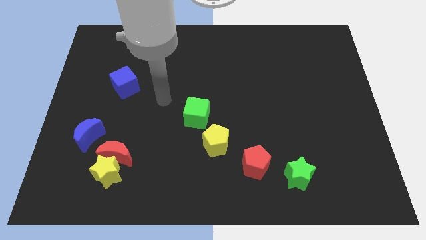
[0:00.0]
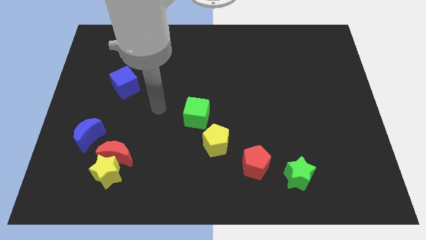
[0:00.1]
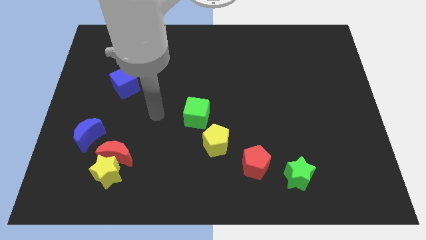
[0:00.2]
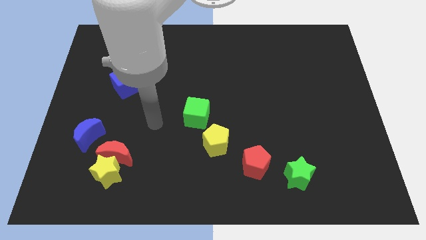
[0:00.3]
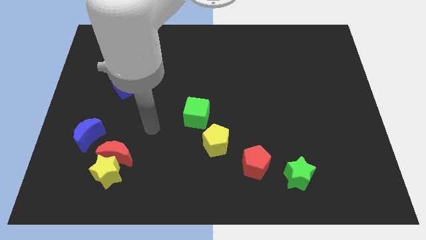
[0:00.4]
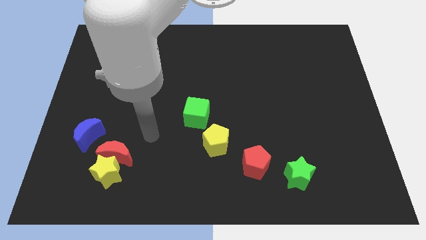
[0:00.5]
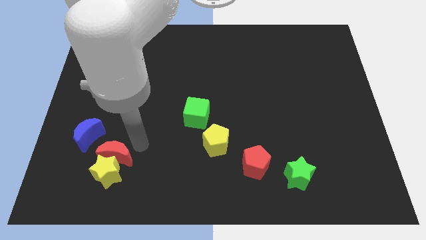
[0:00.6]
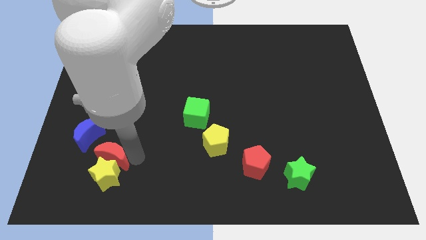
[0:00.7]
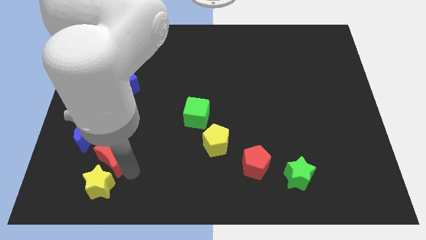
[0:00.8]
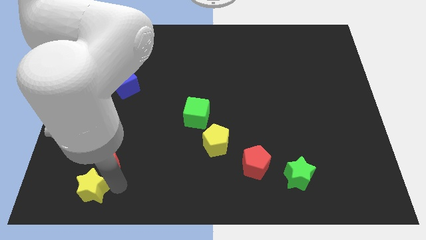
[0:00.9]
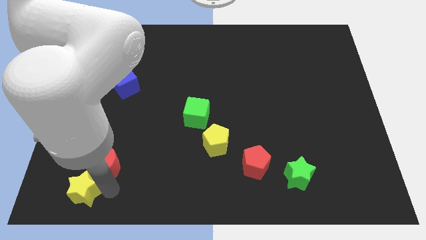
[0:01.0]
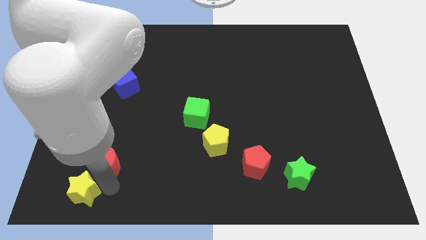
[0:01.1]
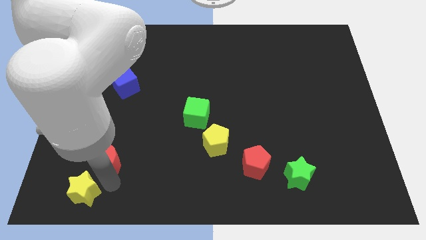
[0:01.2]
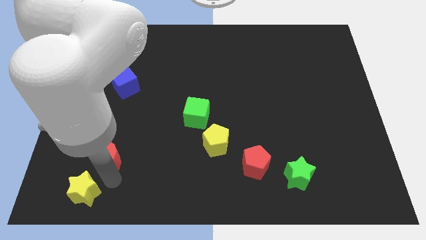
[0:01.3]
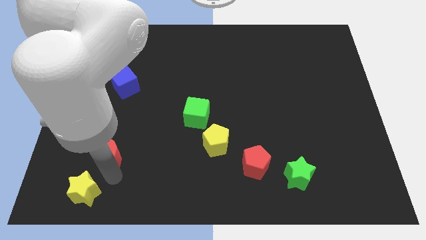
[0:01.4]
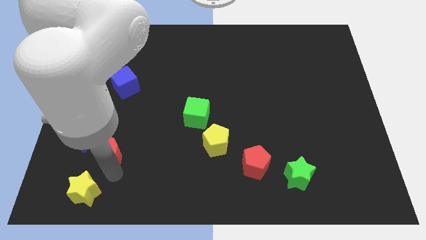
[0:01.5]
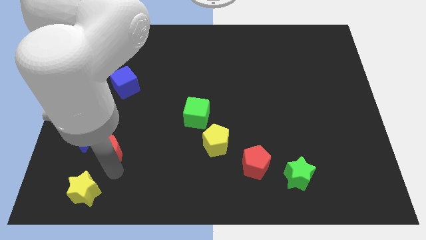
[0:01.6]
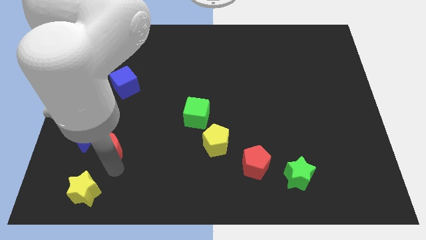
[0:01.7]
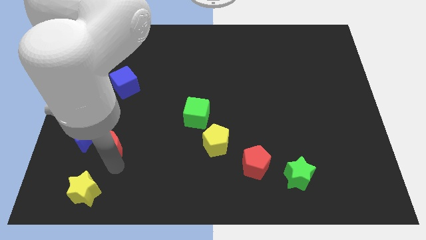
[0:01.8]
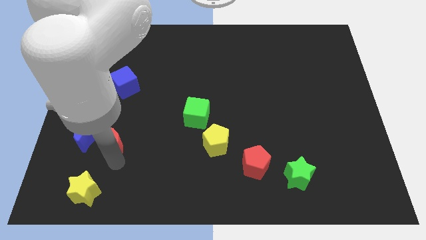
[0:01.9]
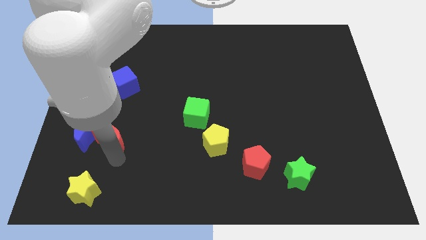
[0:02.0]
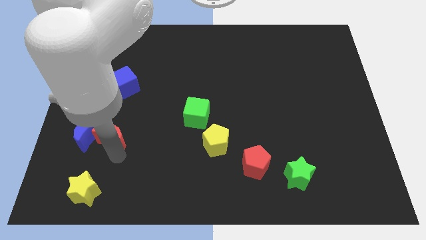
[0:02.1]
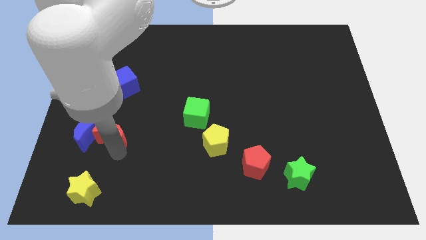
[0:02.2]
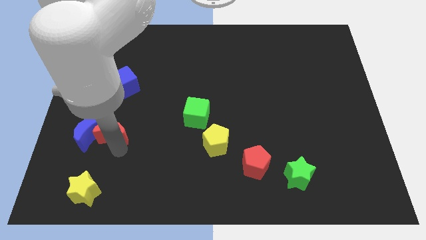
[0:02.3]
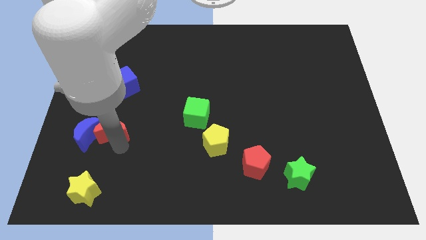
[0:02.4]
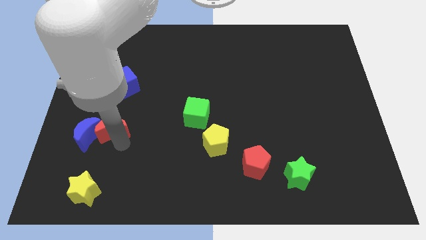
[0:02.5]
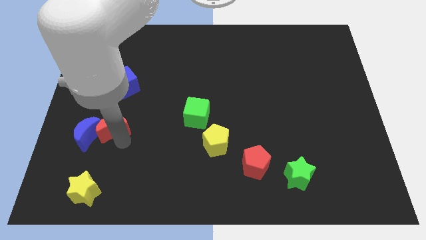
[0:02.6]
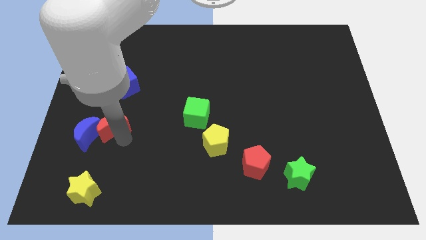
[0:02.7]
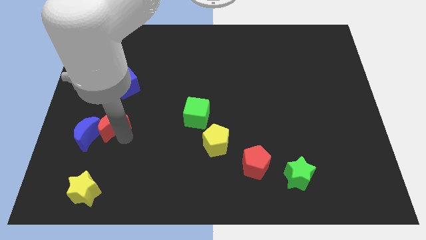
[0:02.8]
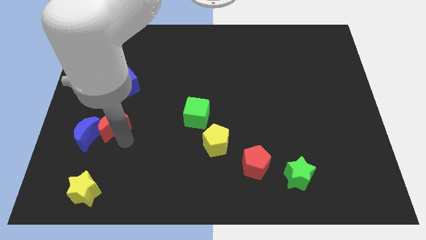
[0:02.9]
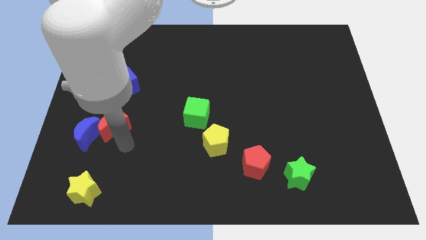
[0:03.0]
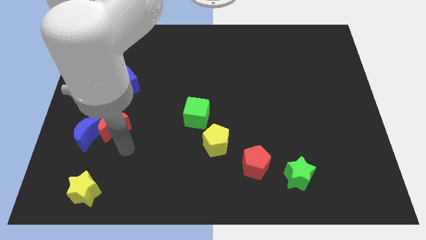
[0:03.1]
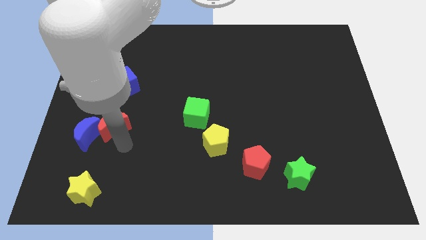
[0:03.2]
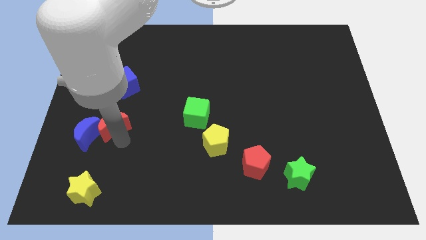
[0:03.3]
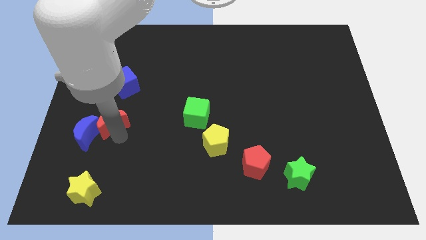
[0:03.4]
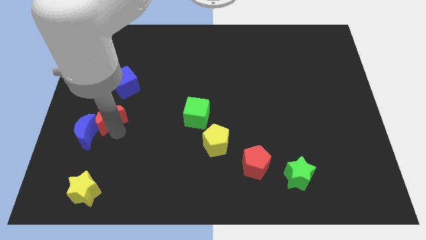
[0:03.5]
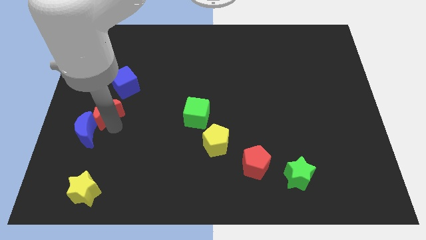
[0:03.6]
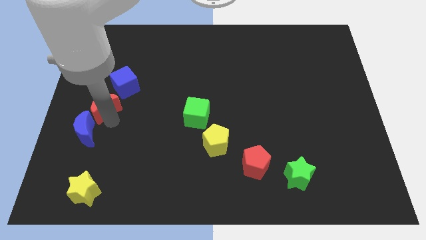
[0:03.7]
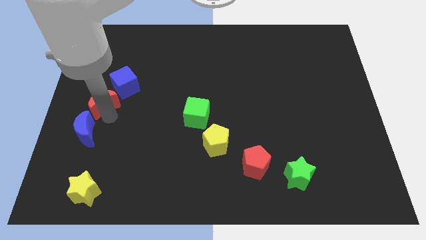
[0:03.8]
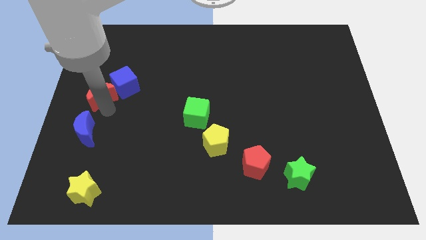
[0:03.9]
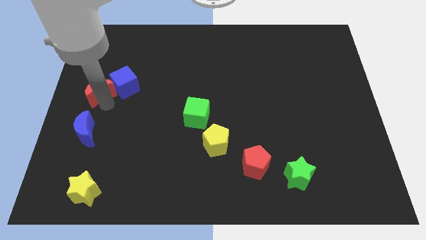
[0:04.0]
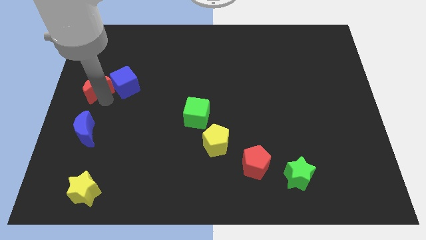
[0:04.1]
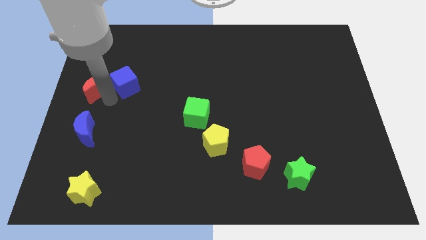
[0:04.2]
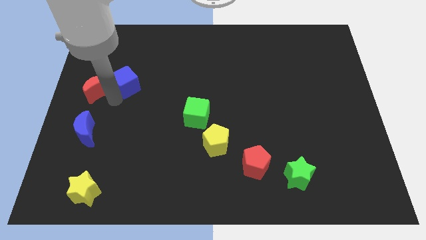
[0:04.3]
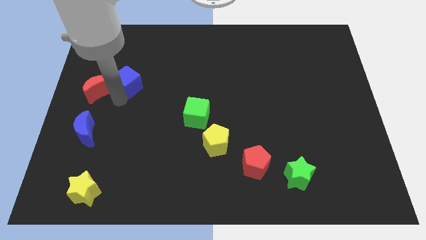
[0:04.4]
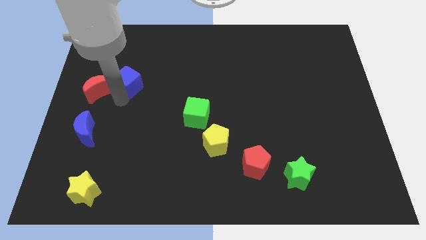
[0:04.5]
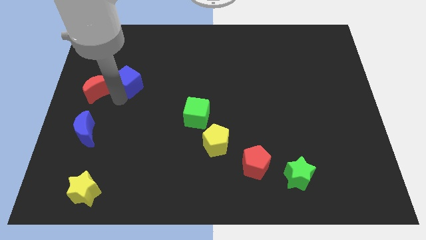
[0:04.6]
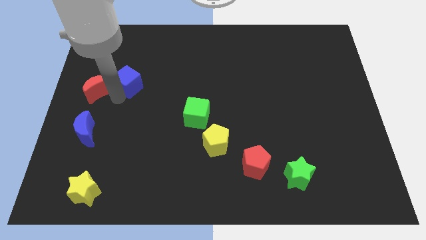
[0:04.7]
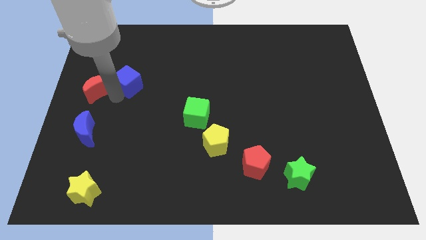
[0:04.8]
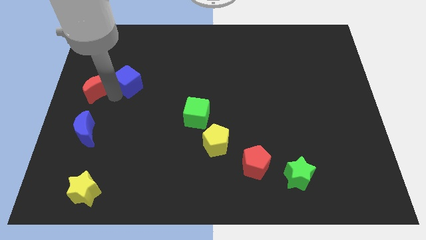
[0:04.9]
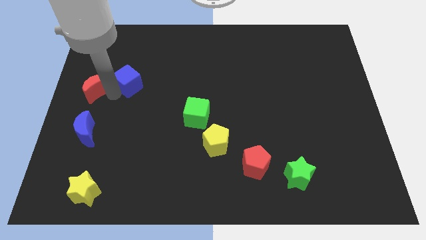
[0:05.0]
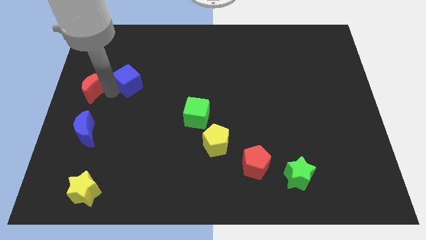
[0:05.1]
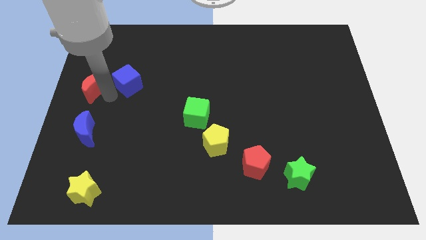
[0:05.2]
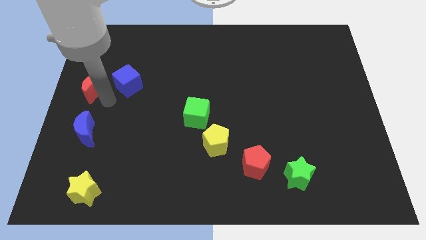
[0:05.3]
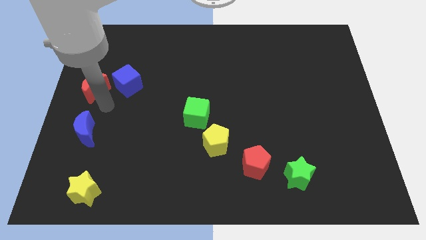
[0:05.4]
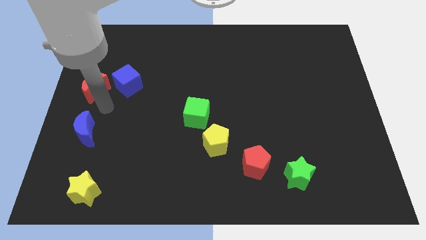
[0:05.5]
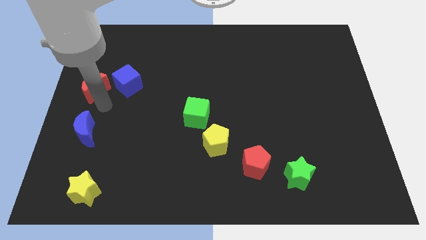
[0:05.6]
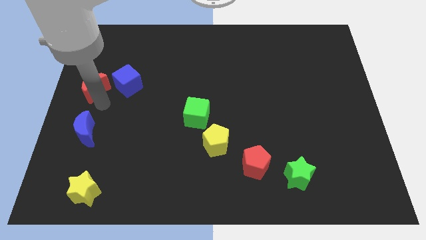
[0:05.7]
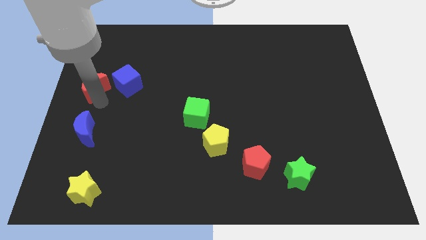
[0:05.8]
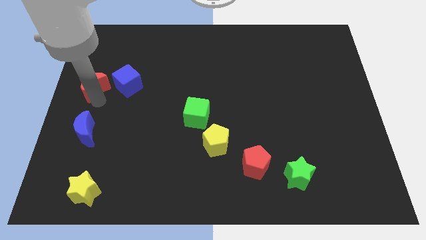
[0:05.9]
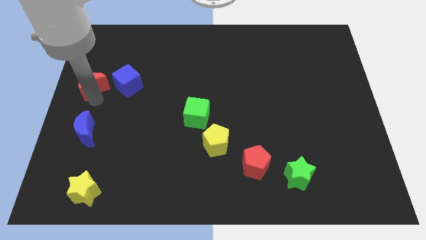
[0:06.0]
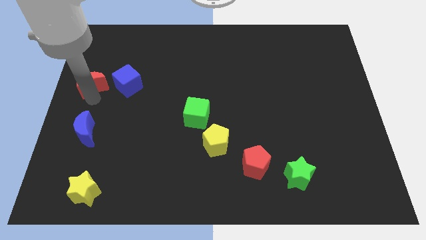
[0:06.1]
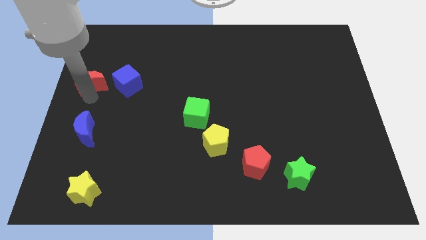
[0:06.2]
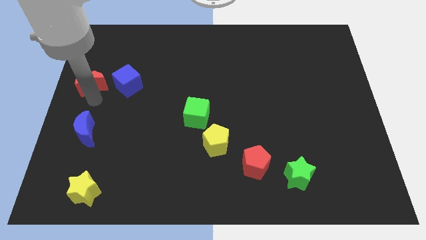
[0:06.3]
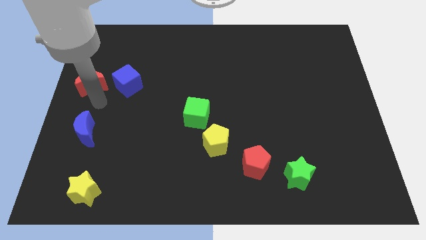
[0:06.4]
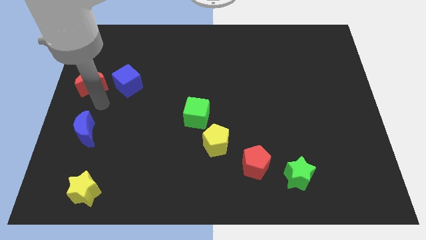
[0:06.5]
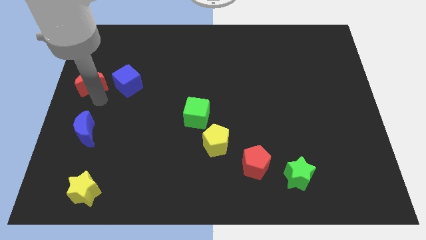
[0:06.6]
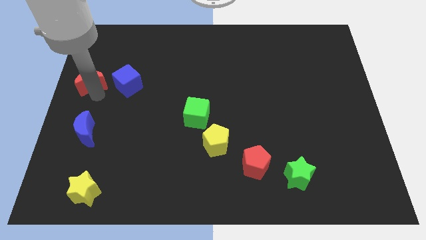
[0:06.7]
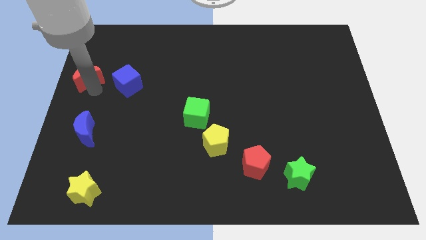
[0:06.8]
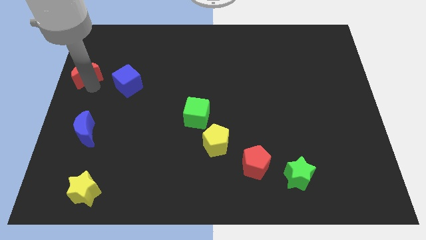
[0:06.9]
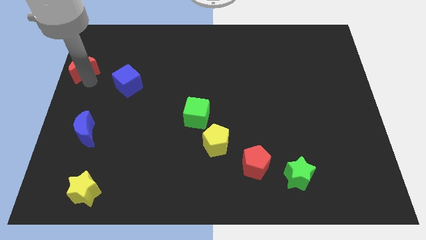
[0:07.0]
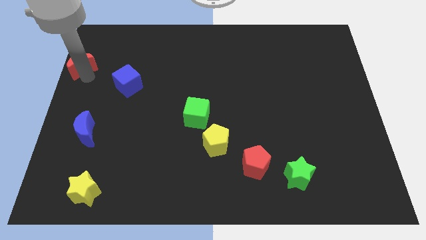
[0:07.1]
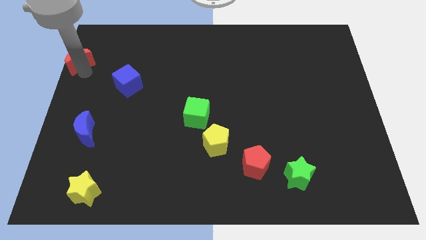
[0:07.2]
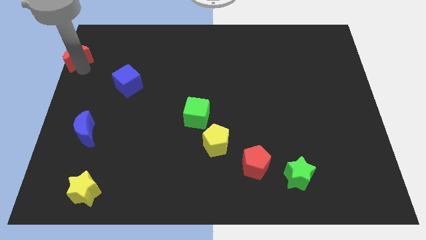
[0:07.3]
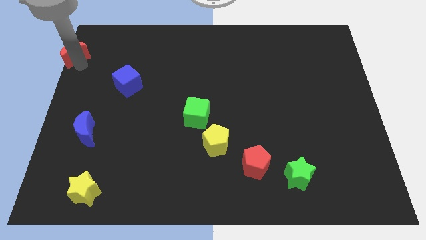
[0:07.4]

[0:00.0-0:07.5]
move the red moon to the top left of the board
